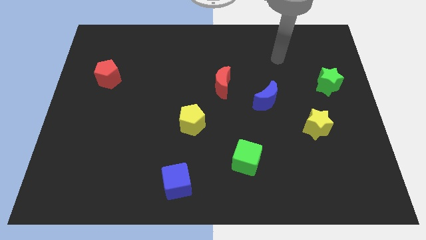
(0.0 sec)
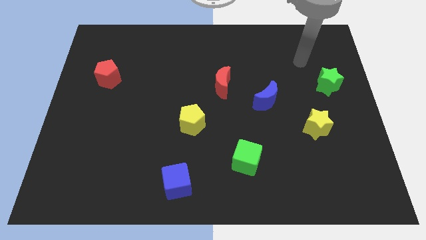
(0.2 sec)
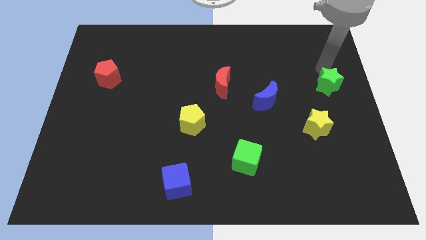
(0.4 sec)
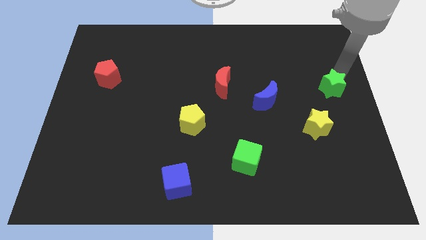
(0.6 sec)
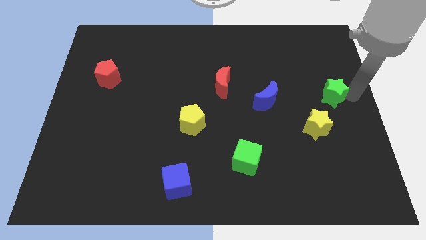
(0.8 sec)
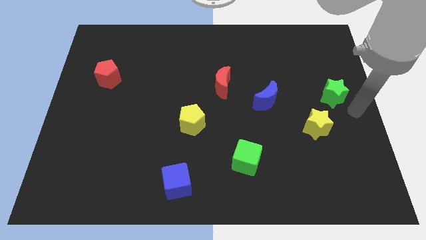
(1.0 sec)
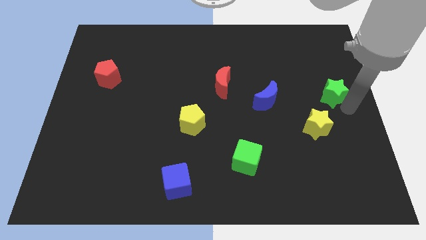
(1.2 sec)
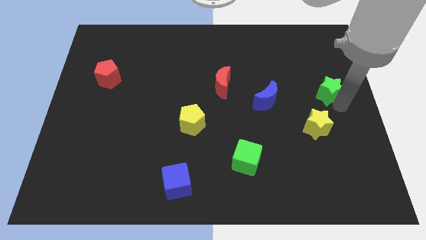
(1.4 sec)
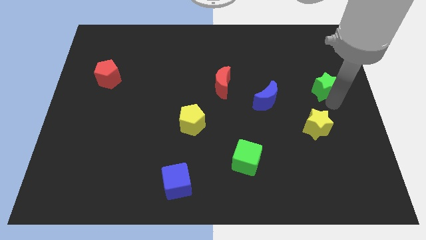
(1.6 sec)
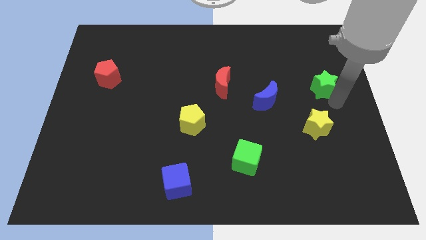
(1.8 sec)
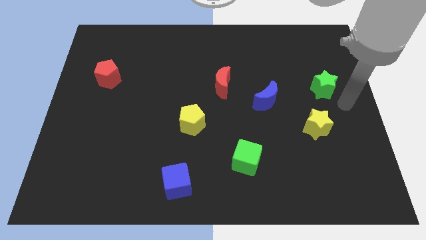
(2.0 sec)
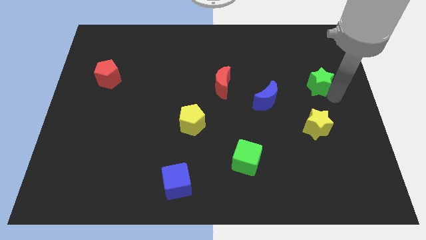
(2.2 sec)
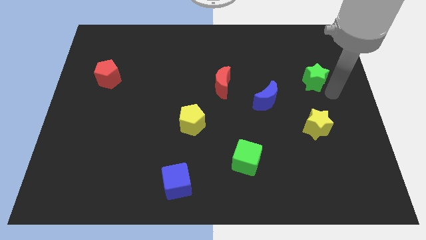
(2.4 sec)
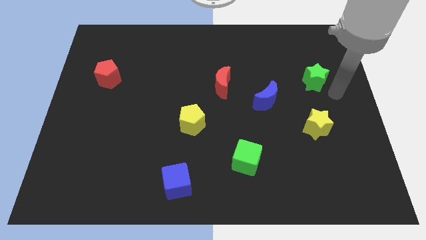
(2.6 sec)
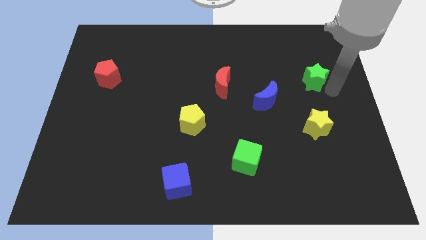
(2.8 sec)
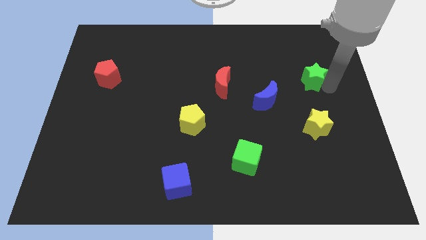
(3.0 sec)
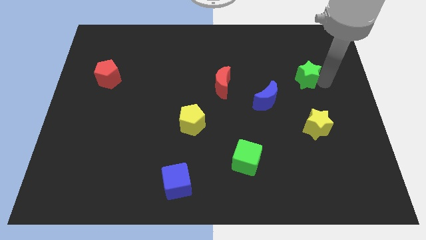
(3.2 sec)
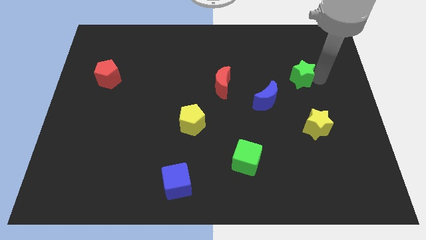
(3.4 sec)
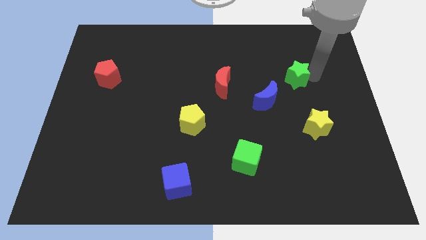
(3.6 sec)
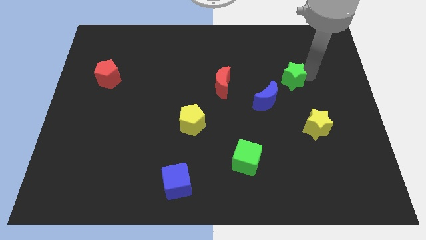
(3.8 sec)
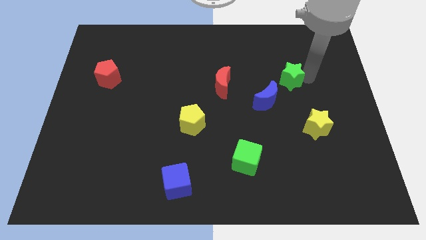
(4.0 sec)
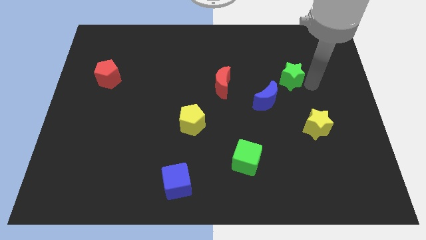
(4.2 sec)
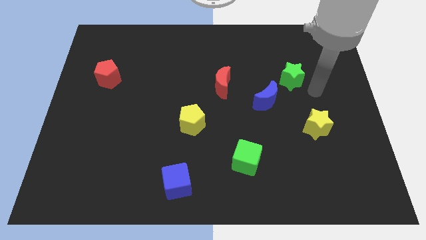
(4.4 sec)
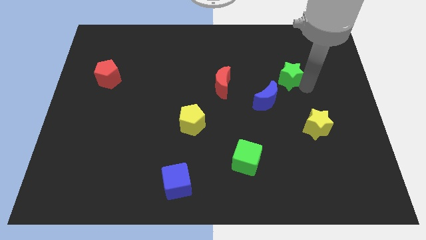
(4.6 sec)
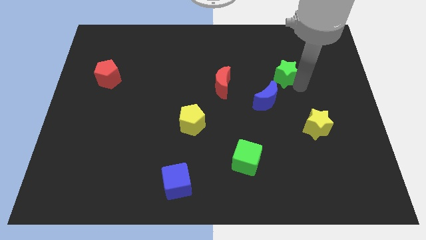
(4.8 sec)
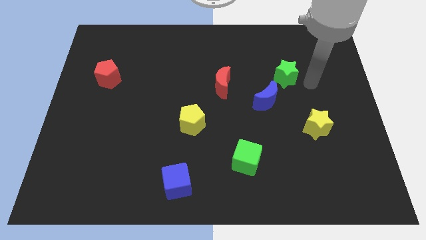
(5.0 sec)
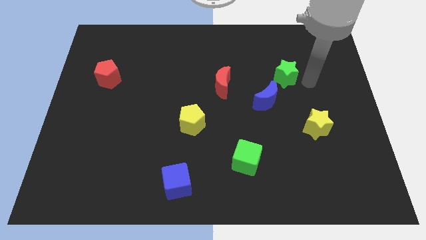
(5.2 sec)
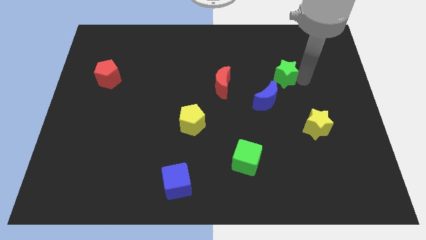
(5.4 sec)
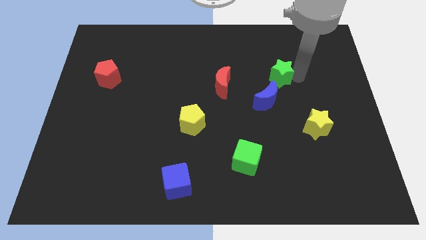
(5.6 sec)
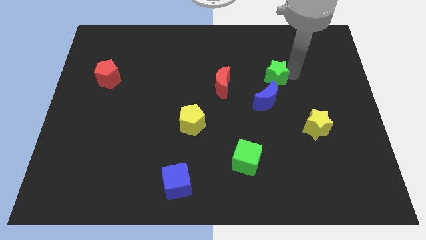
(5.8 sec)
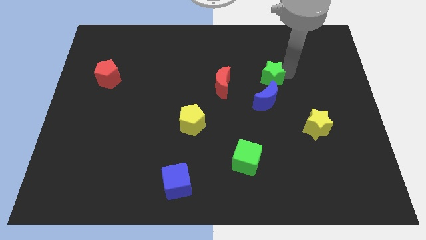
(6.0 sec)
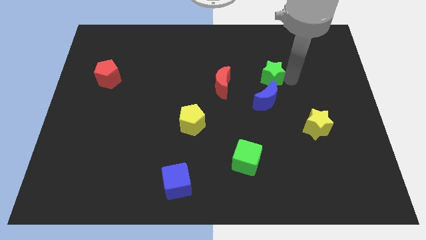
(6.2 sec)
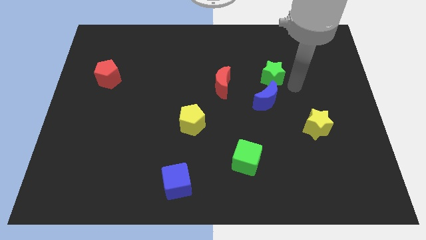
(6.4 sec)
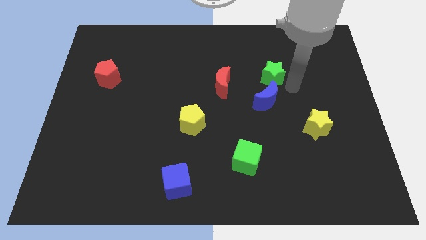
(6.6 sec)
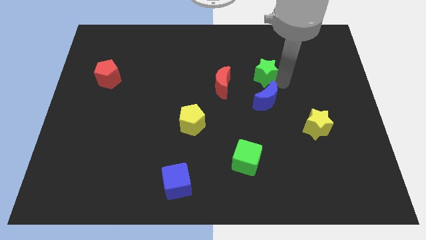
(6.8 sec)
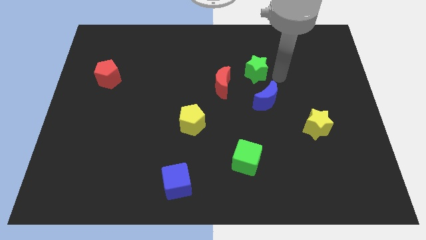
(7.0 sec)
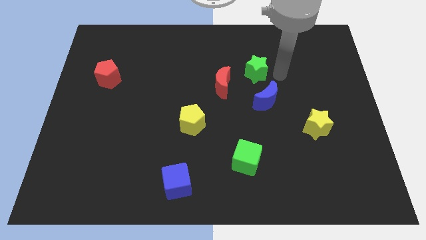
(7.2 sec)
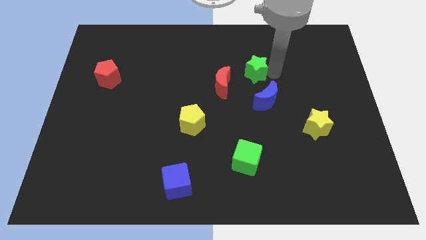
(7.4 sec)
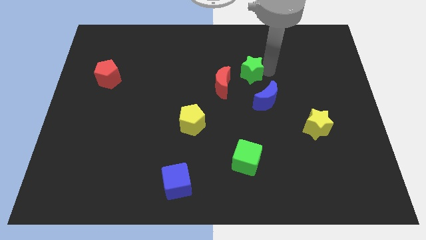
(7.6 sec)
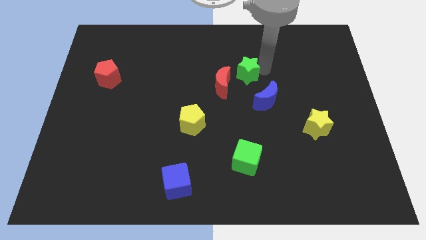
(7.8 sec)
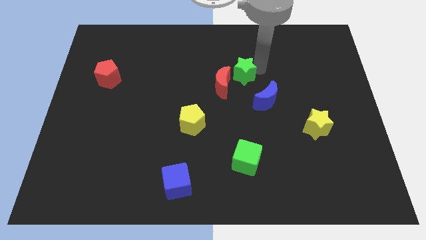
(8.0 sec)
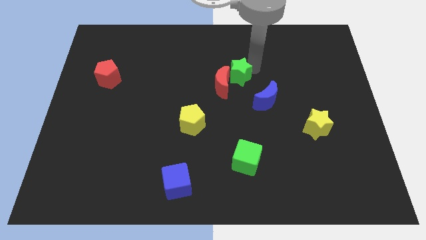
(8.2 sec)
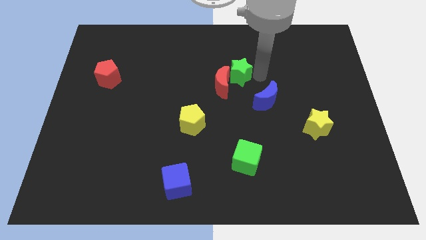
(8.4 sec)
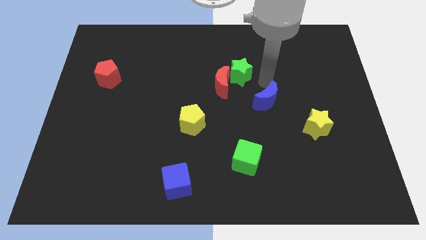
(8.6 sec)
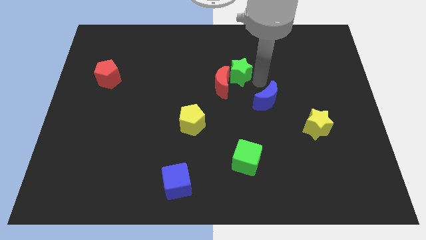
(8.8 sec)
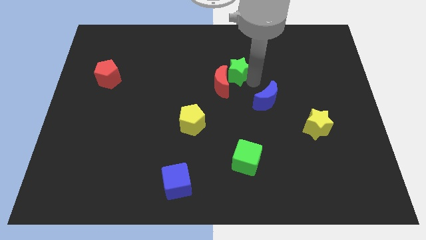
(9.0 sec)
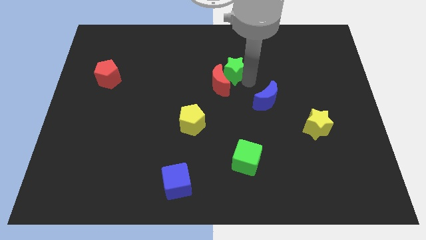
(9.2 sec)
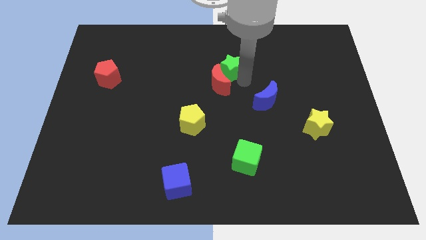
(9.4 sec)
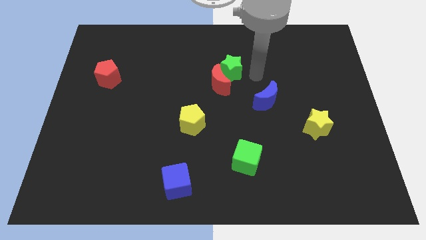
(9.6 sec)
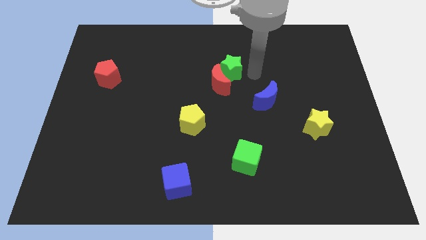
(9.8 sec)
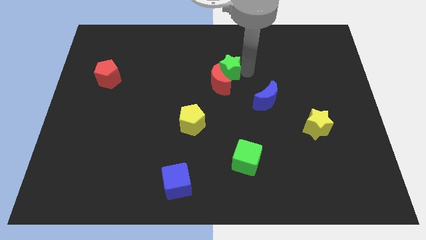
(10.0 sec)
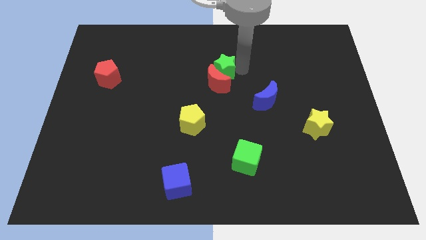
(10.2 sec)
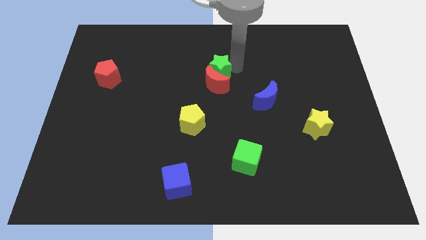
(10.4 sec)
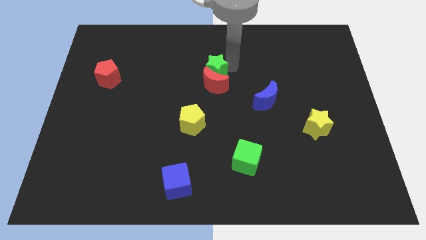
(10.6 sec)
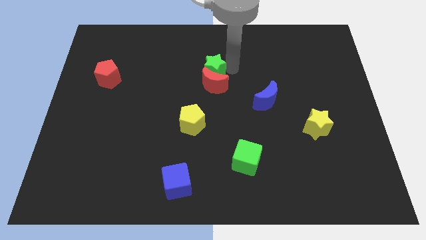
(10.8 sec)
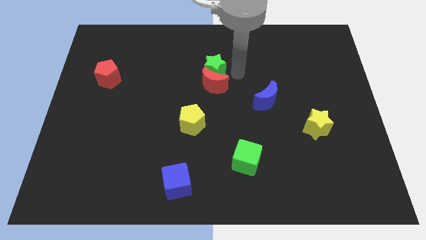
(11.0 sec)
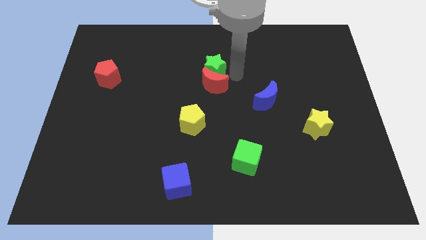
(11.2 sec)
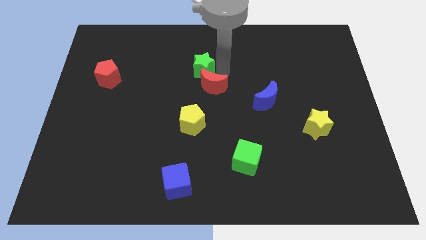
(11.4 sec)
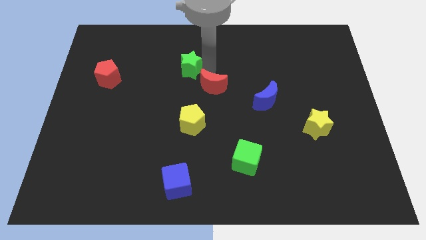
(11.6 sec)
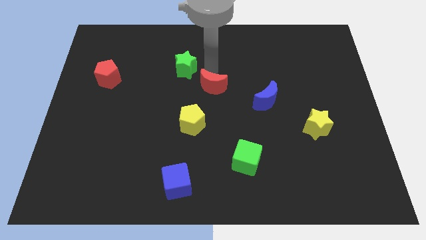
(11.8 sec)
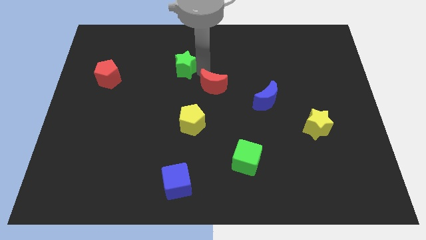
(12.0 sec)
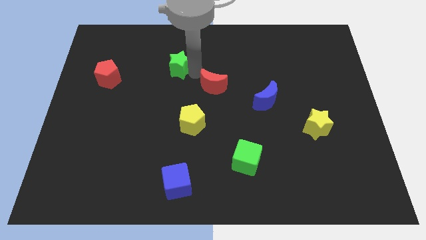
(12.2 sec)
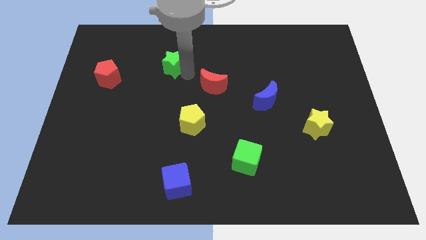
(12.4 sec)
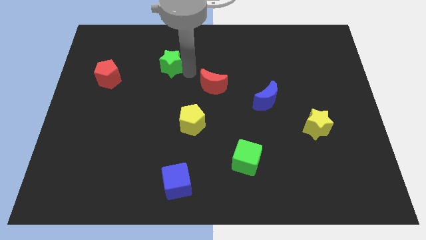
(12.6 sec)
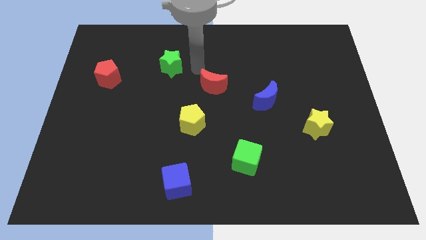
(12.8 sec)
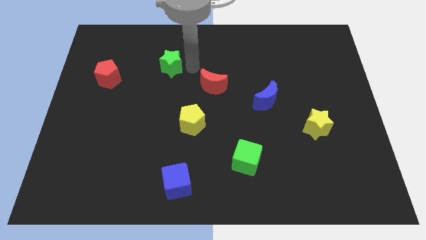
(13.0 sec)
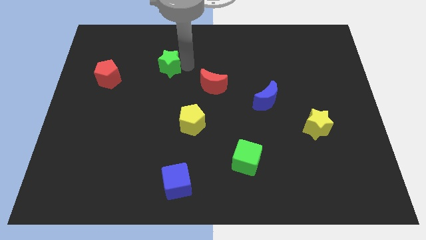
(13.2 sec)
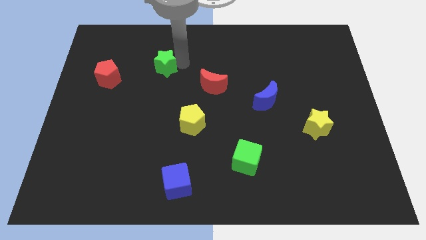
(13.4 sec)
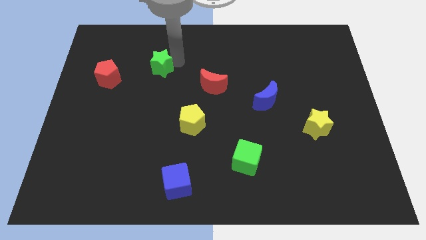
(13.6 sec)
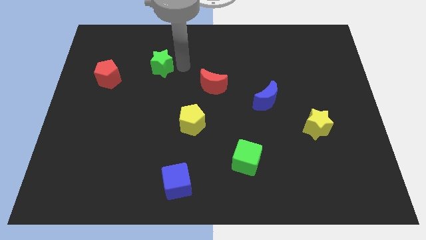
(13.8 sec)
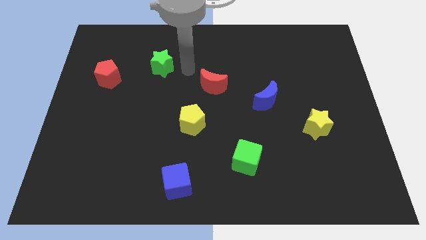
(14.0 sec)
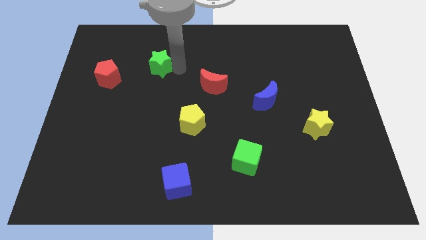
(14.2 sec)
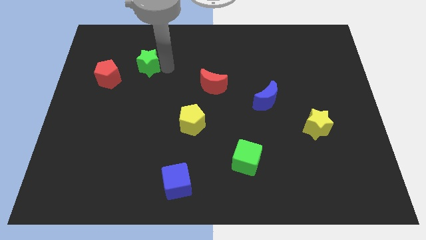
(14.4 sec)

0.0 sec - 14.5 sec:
slide the green star to the top right side of the red pentagon

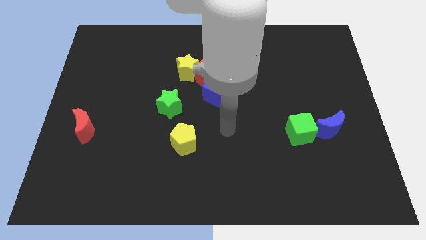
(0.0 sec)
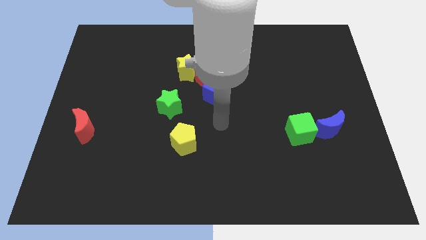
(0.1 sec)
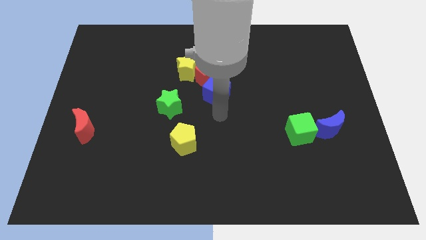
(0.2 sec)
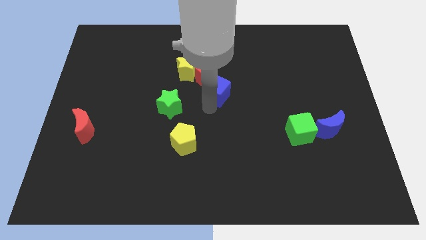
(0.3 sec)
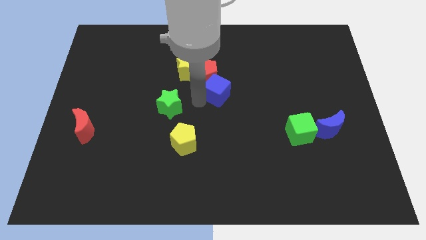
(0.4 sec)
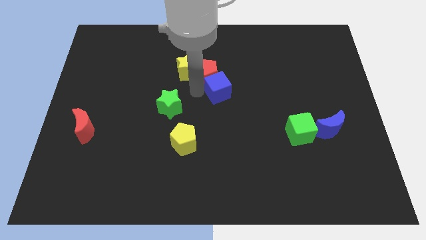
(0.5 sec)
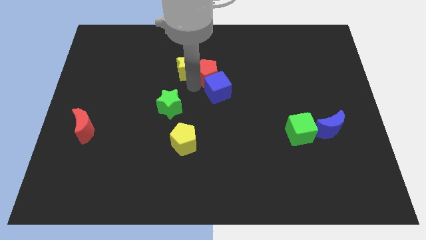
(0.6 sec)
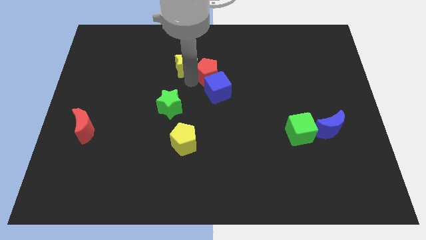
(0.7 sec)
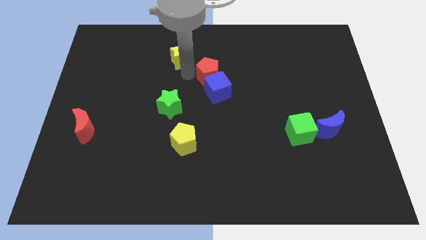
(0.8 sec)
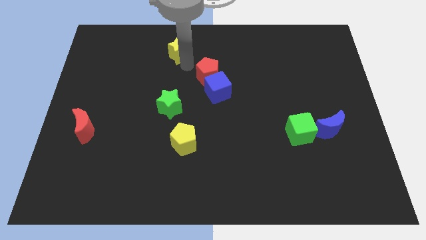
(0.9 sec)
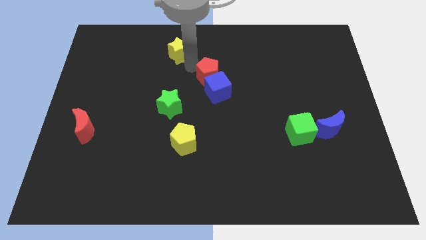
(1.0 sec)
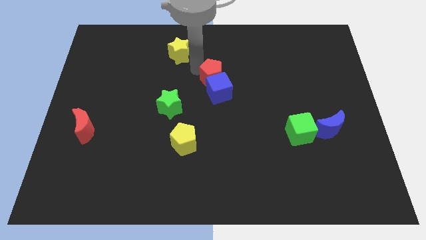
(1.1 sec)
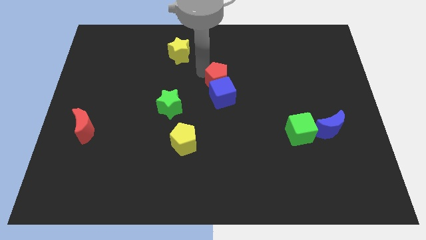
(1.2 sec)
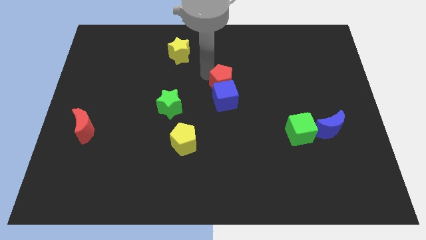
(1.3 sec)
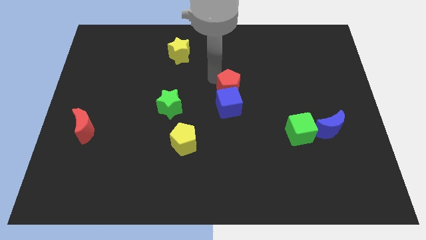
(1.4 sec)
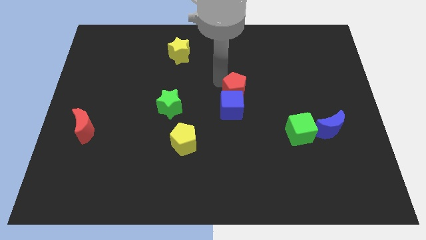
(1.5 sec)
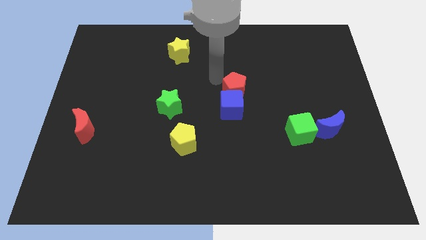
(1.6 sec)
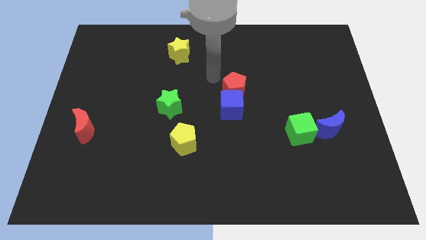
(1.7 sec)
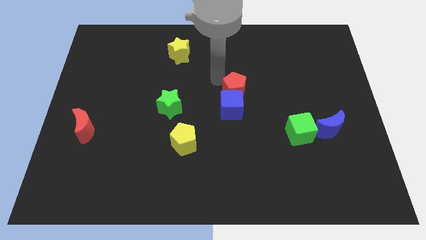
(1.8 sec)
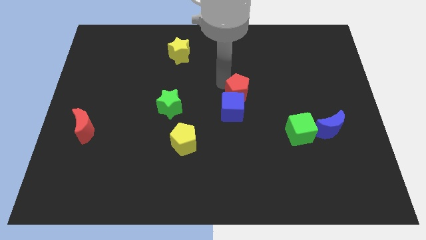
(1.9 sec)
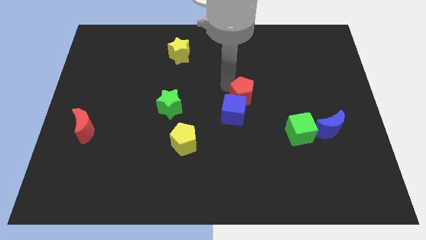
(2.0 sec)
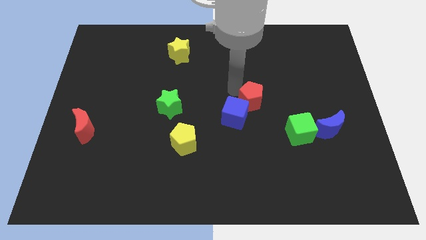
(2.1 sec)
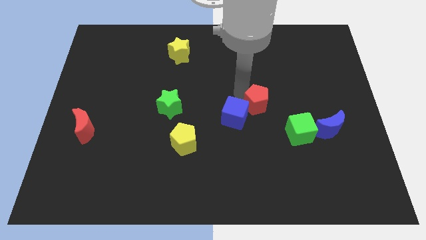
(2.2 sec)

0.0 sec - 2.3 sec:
push the red pentagon to the top left side of the green cube
